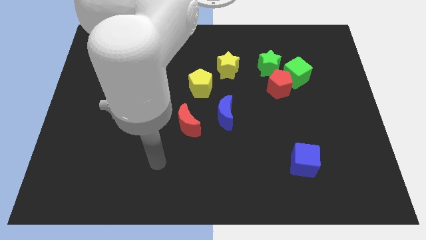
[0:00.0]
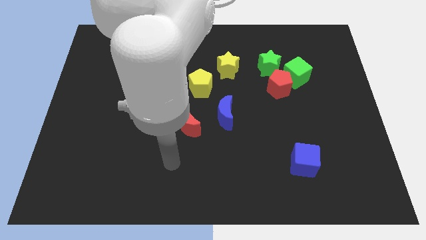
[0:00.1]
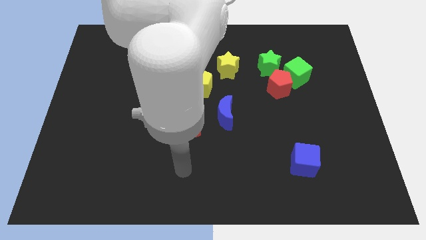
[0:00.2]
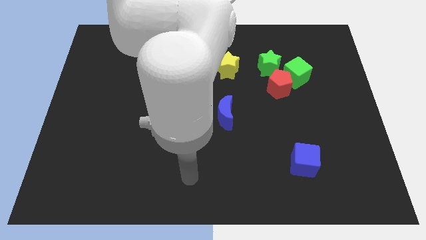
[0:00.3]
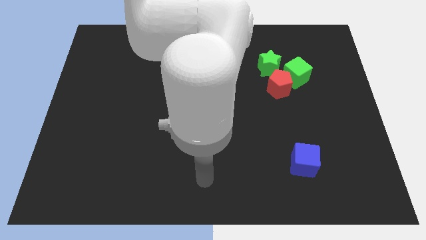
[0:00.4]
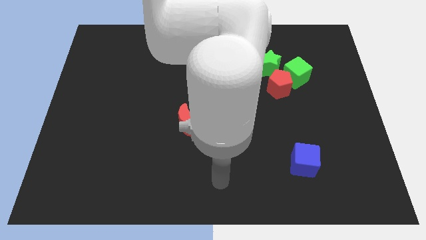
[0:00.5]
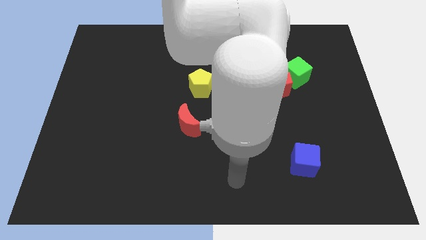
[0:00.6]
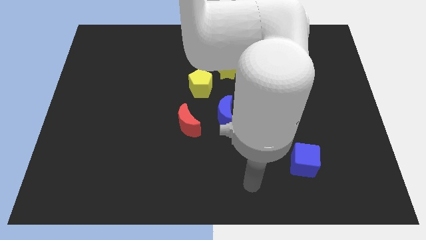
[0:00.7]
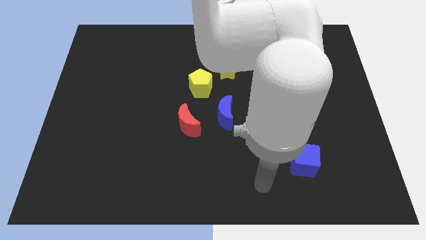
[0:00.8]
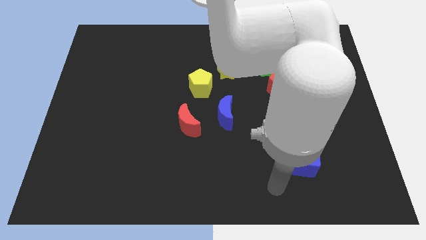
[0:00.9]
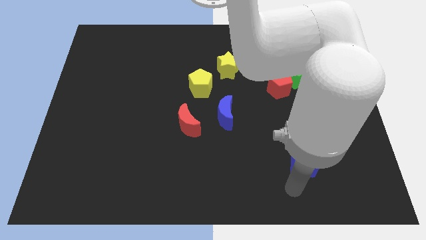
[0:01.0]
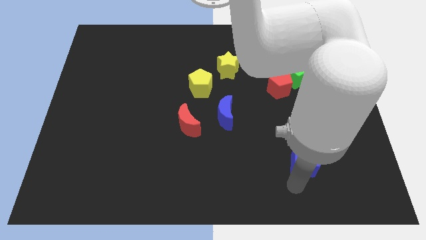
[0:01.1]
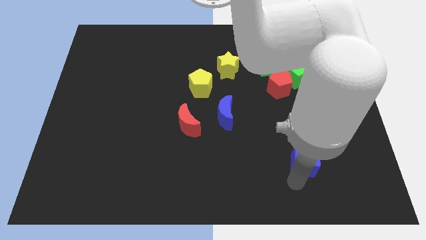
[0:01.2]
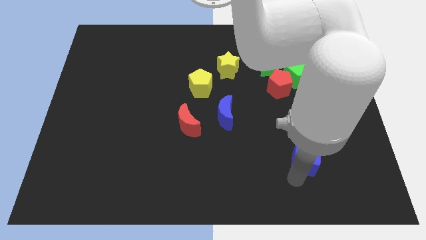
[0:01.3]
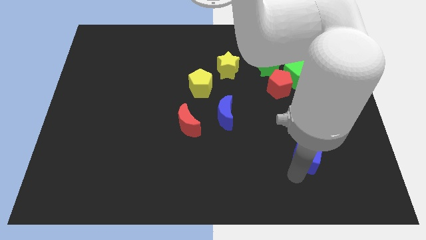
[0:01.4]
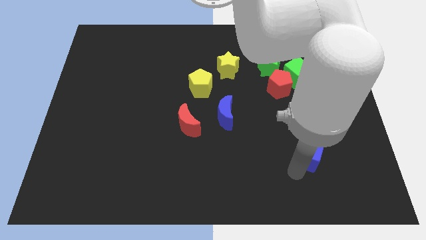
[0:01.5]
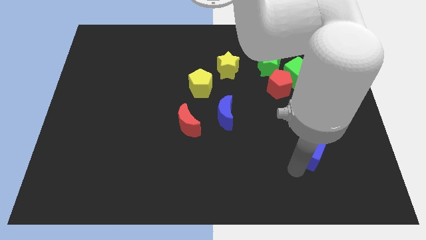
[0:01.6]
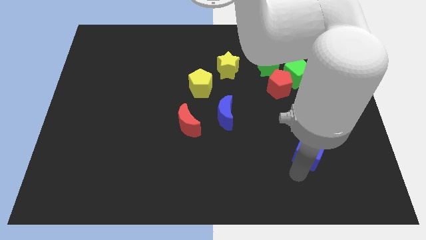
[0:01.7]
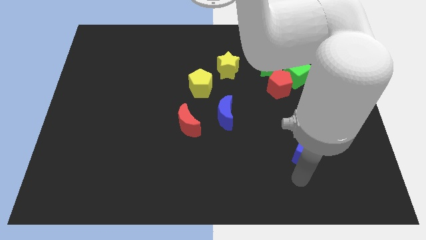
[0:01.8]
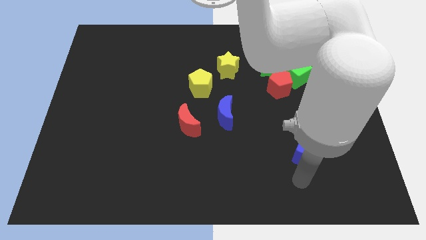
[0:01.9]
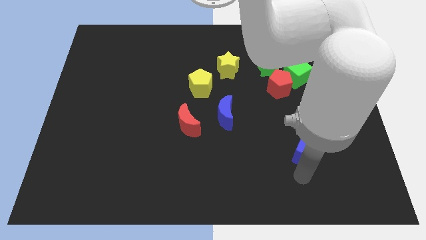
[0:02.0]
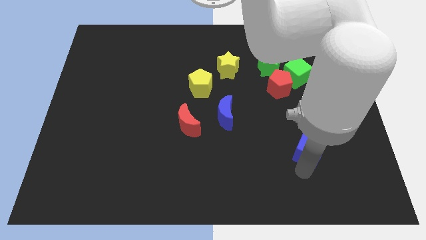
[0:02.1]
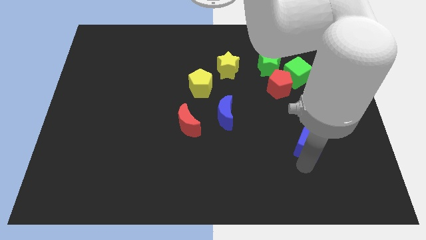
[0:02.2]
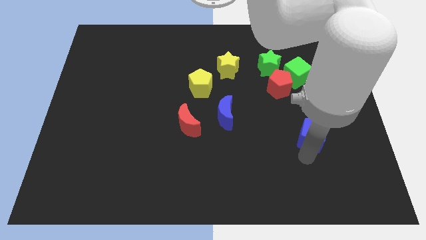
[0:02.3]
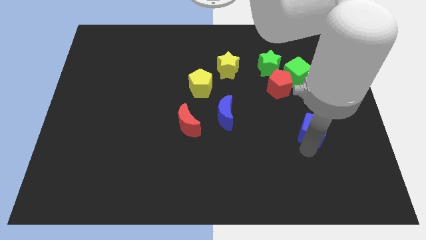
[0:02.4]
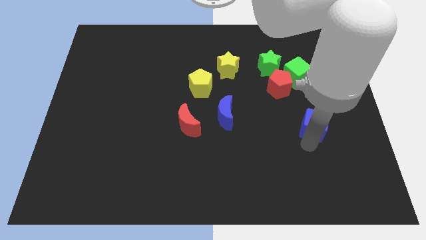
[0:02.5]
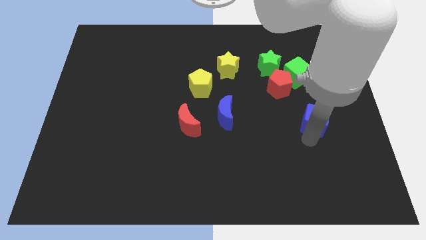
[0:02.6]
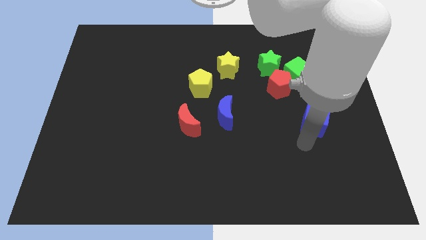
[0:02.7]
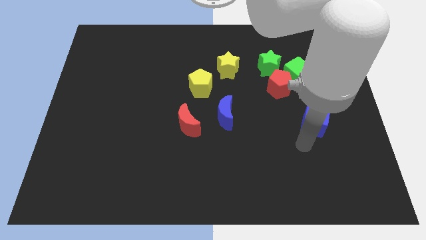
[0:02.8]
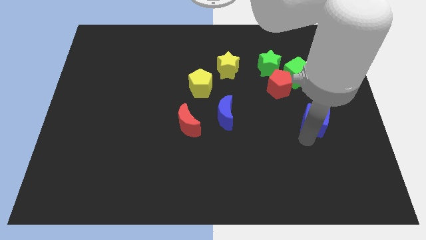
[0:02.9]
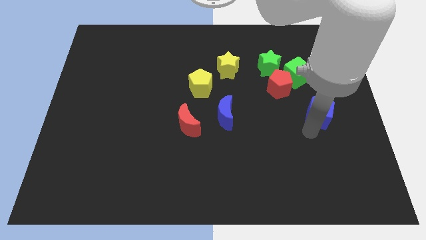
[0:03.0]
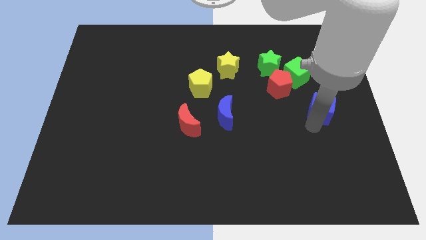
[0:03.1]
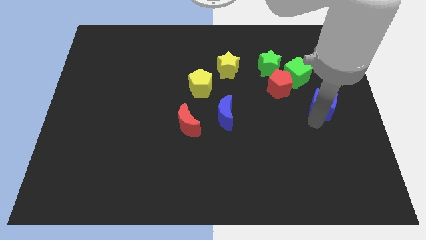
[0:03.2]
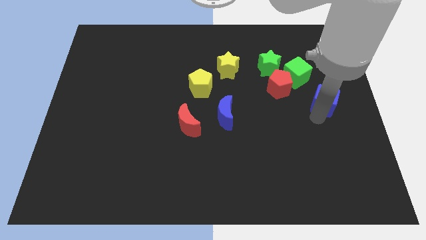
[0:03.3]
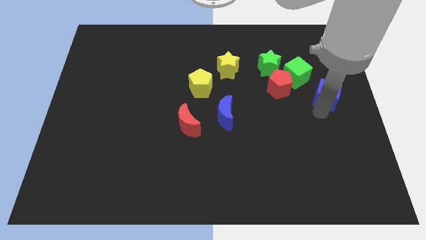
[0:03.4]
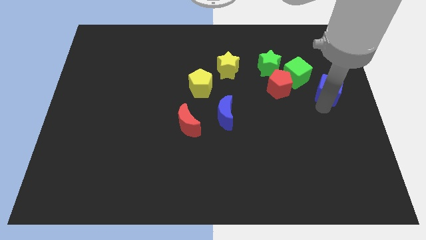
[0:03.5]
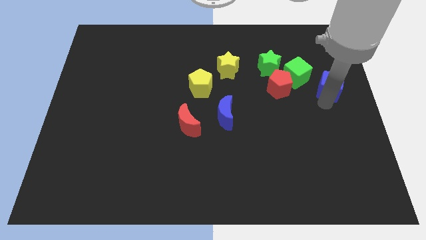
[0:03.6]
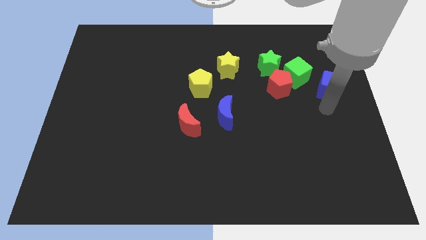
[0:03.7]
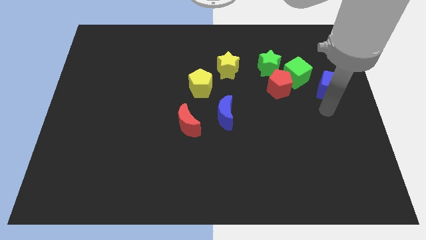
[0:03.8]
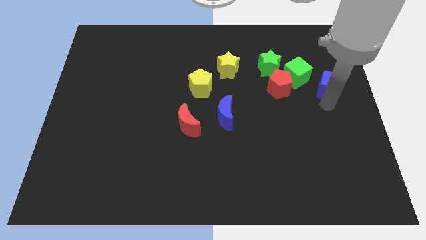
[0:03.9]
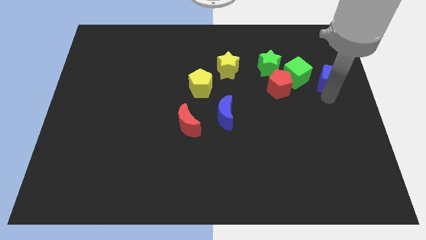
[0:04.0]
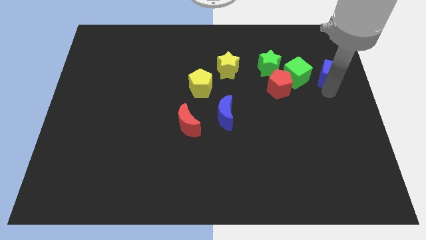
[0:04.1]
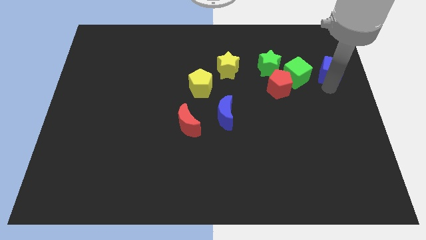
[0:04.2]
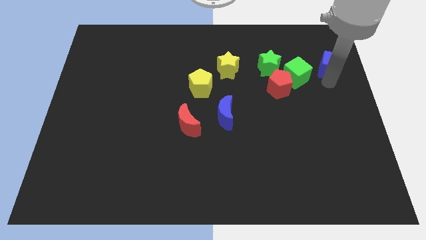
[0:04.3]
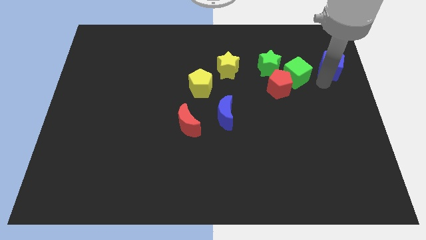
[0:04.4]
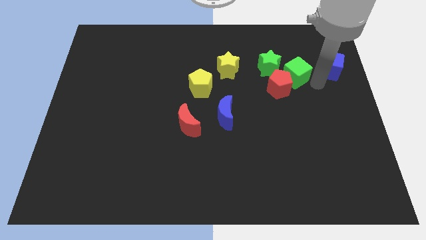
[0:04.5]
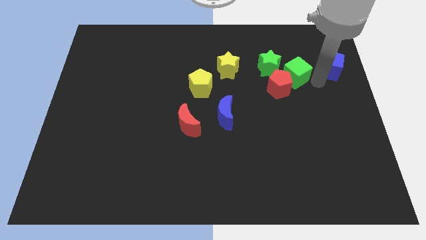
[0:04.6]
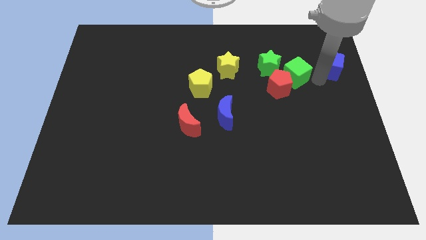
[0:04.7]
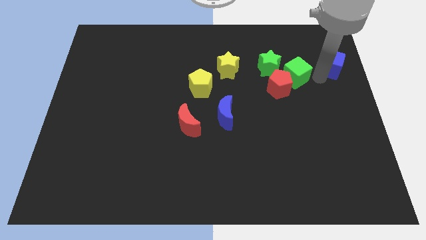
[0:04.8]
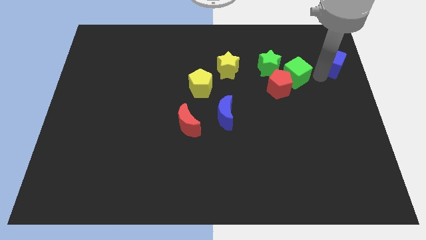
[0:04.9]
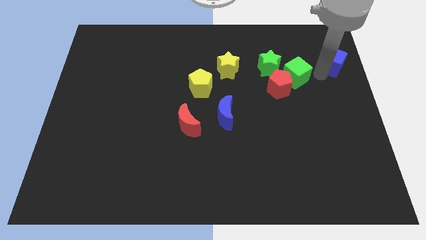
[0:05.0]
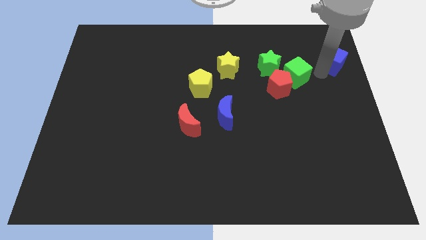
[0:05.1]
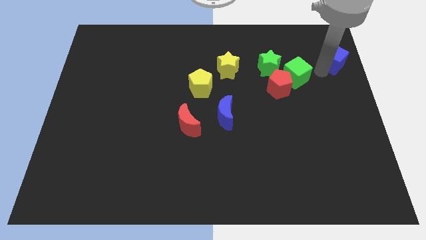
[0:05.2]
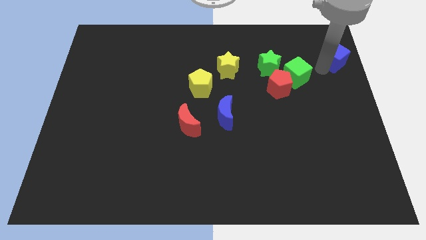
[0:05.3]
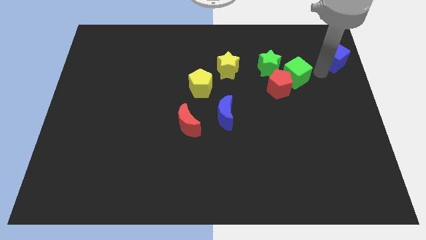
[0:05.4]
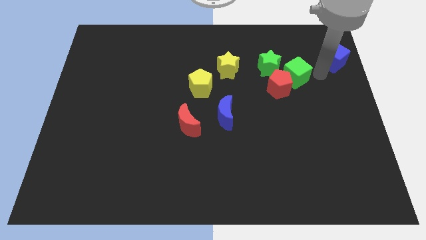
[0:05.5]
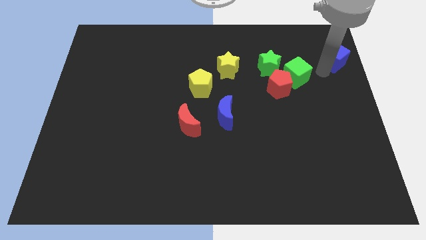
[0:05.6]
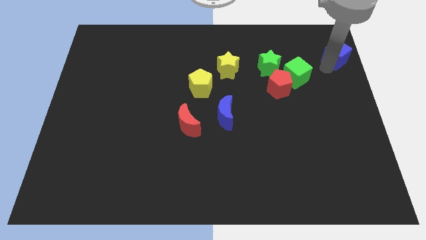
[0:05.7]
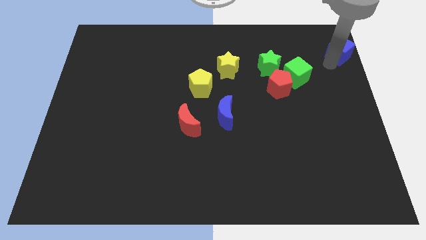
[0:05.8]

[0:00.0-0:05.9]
put the blue cube to the top right of the board
